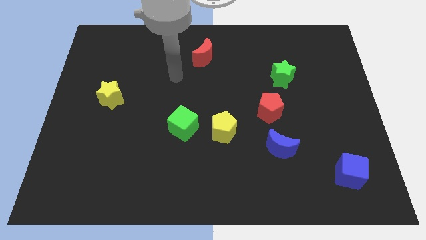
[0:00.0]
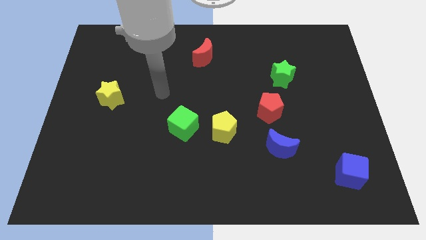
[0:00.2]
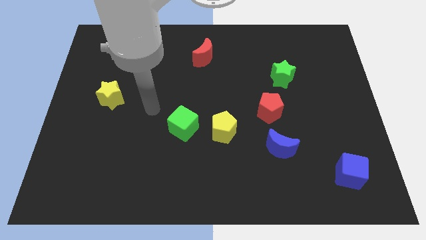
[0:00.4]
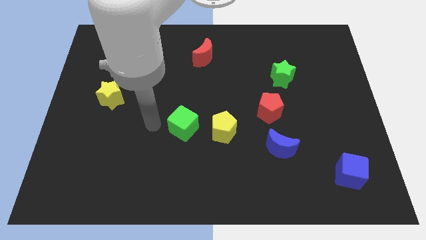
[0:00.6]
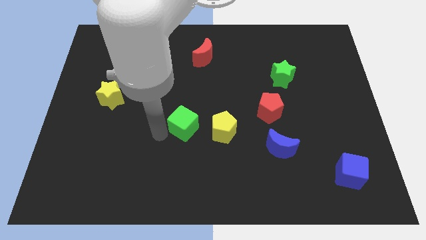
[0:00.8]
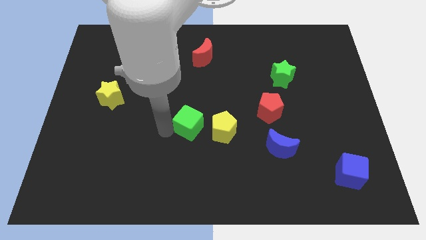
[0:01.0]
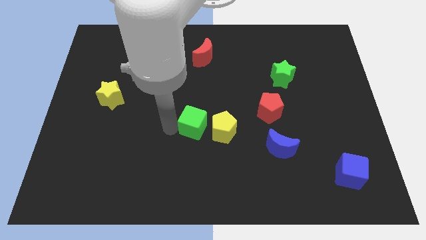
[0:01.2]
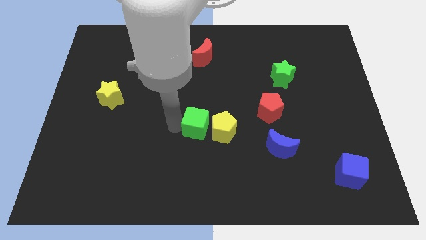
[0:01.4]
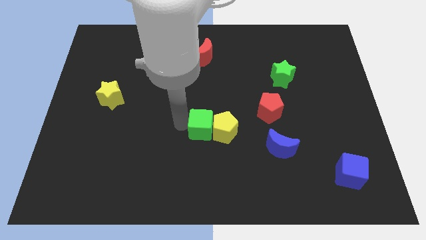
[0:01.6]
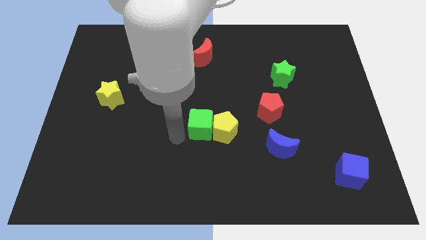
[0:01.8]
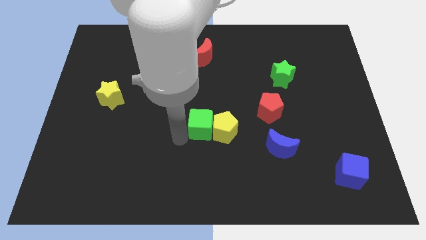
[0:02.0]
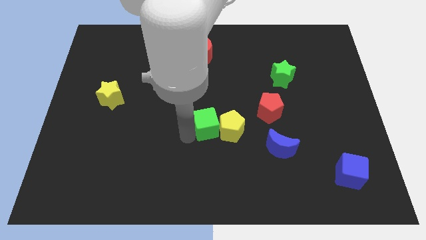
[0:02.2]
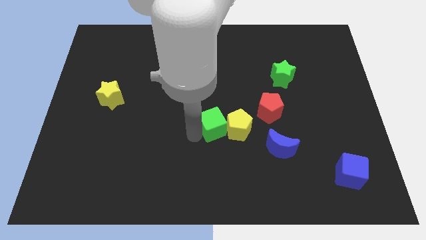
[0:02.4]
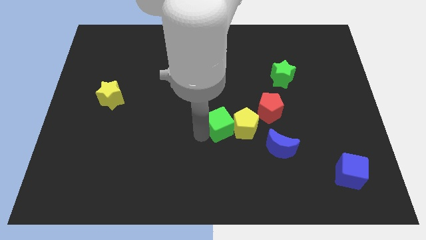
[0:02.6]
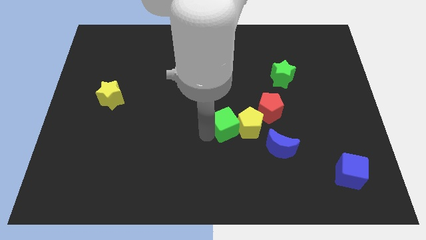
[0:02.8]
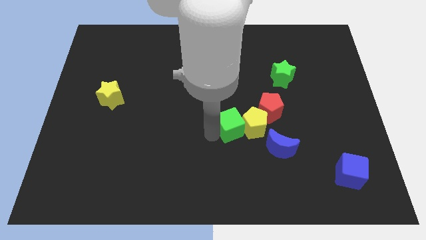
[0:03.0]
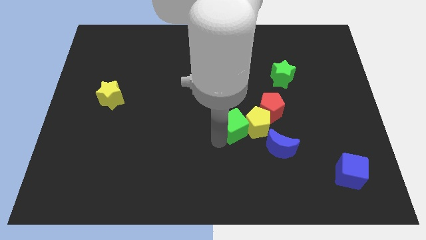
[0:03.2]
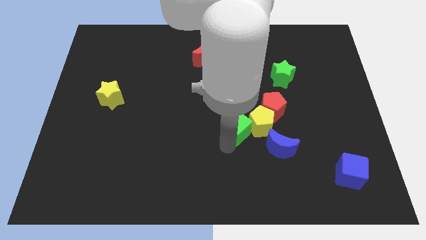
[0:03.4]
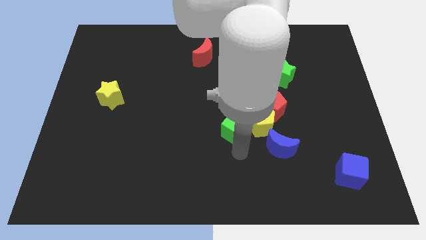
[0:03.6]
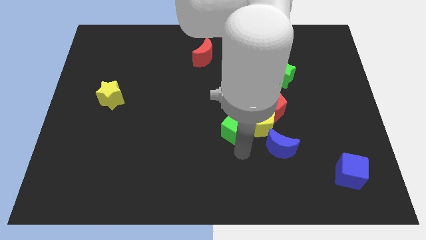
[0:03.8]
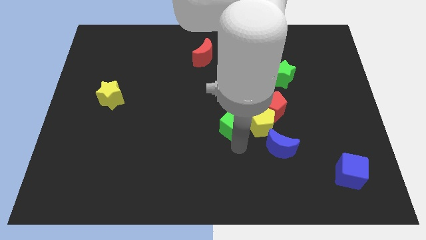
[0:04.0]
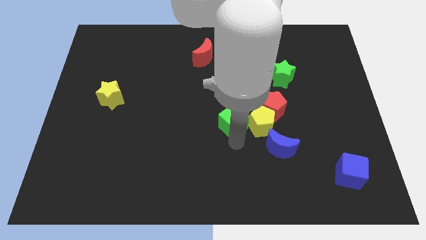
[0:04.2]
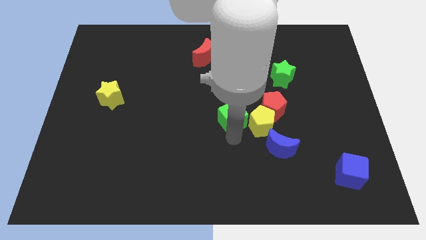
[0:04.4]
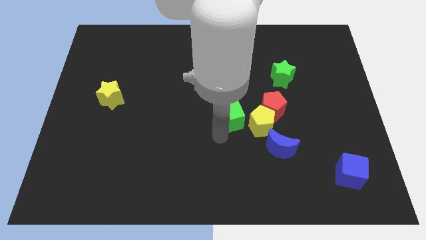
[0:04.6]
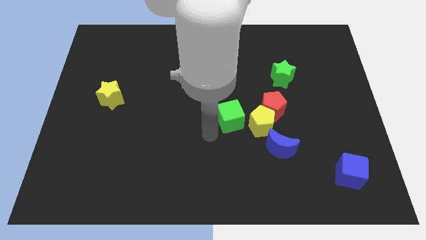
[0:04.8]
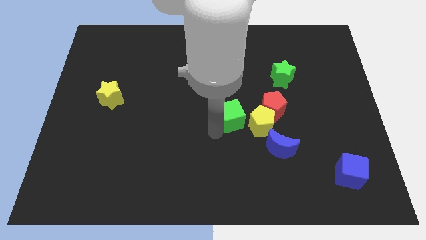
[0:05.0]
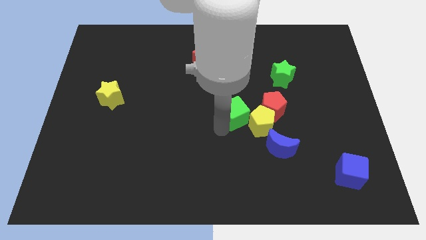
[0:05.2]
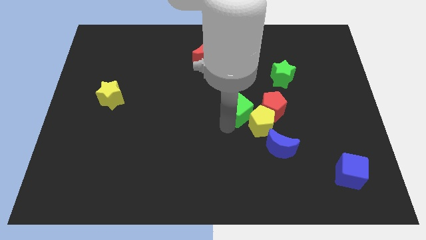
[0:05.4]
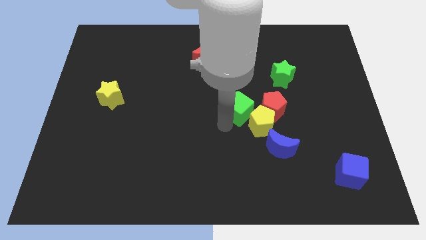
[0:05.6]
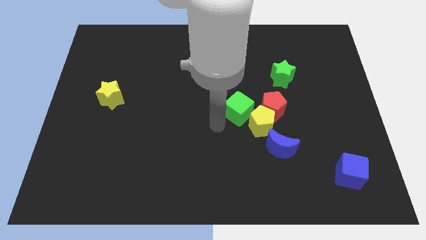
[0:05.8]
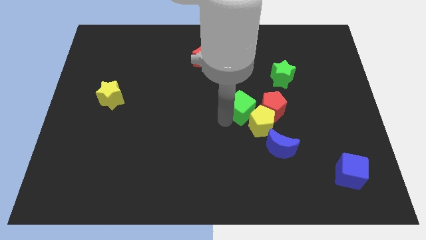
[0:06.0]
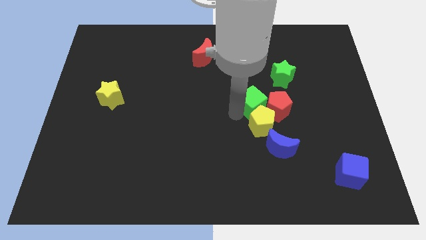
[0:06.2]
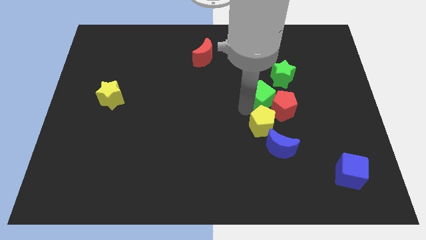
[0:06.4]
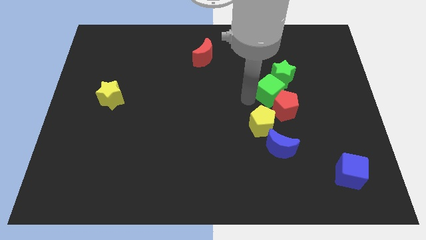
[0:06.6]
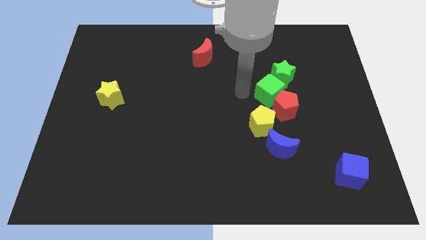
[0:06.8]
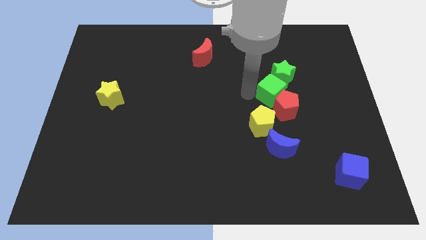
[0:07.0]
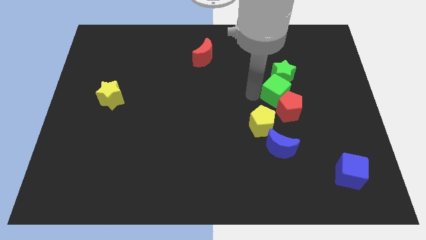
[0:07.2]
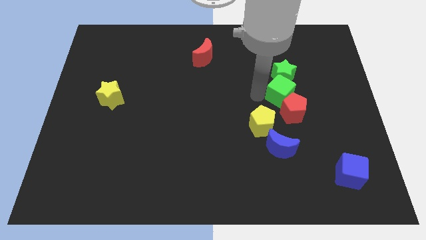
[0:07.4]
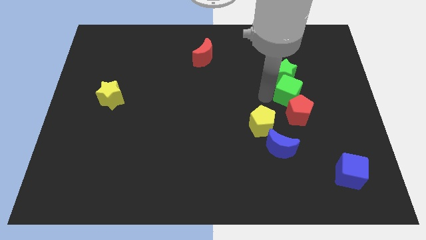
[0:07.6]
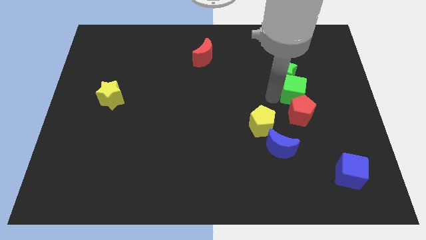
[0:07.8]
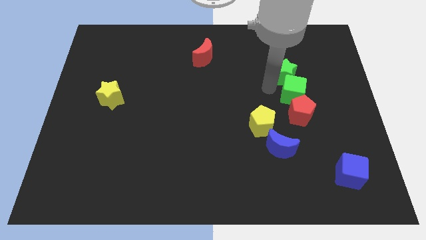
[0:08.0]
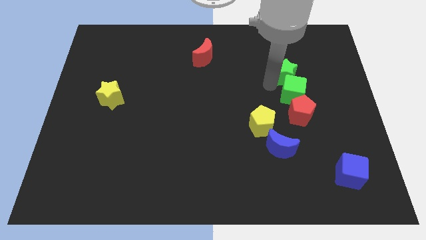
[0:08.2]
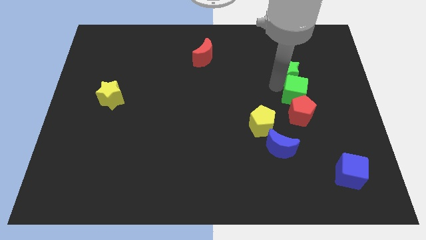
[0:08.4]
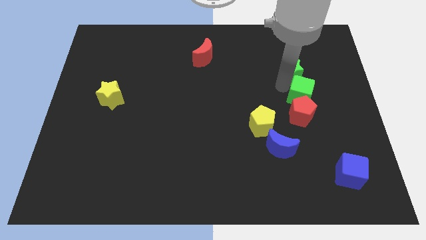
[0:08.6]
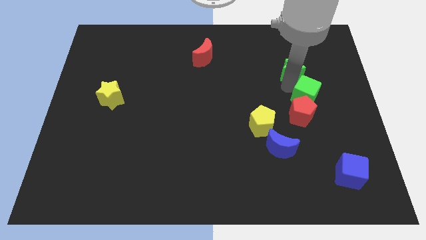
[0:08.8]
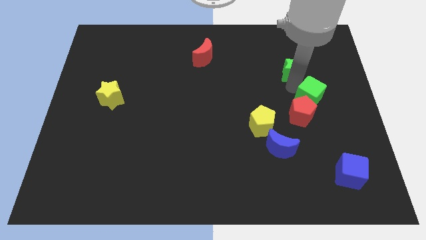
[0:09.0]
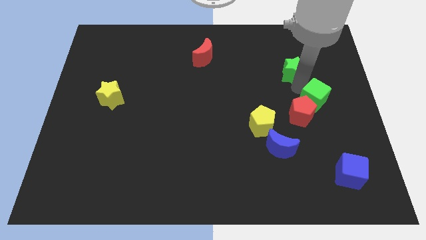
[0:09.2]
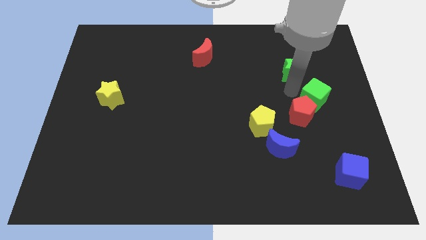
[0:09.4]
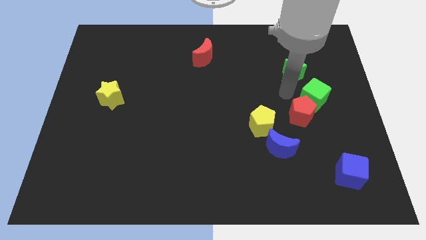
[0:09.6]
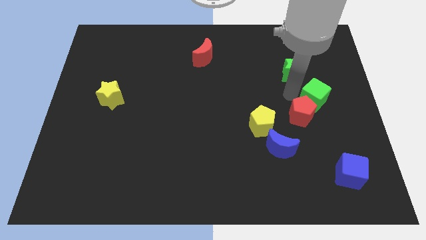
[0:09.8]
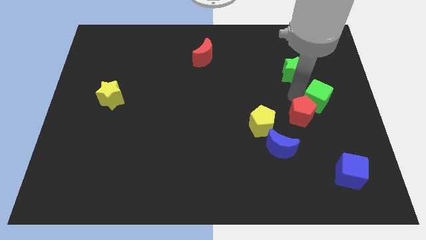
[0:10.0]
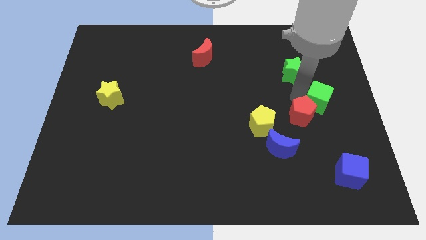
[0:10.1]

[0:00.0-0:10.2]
put the green cube to the center right

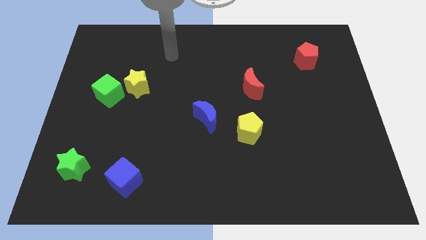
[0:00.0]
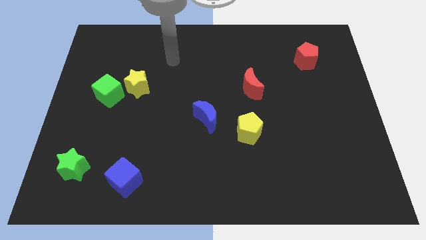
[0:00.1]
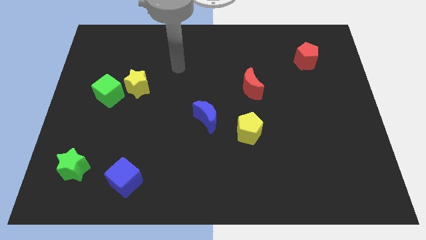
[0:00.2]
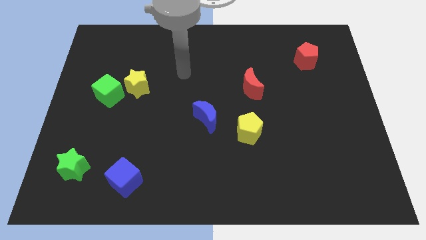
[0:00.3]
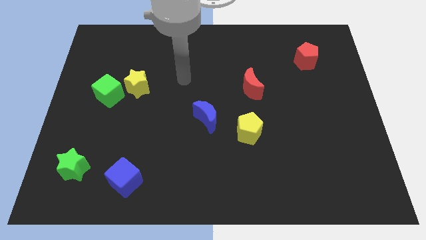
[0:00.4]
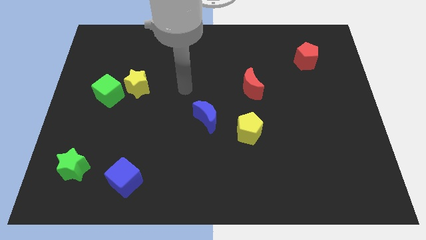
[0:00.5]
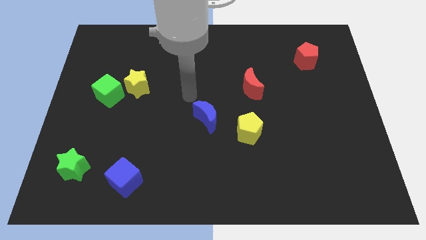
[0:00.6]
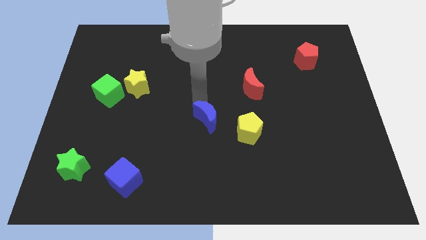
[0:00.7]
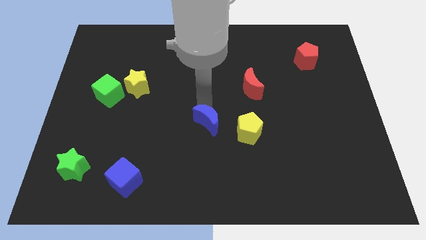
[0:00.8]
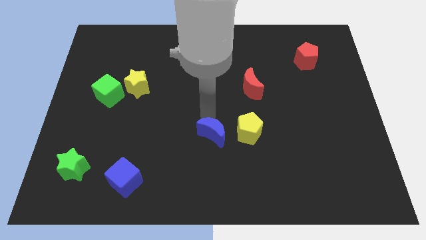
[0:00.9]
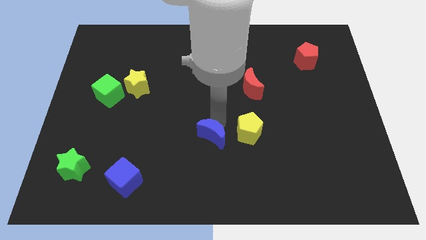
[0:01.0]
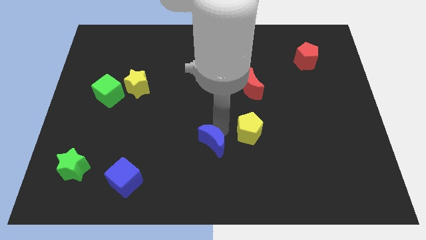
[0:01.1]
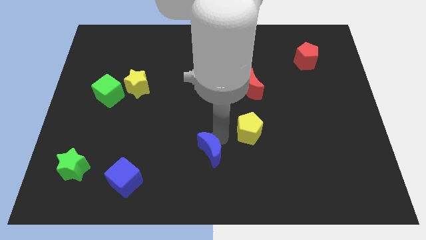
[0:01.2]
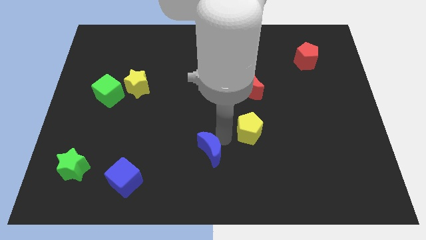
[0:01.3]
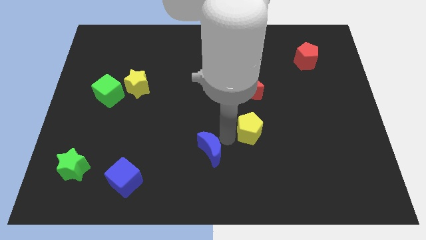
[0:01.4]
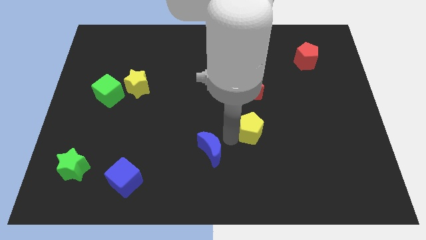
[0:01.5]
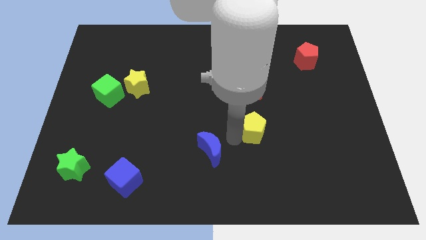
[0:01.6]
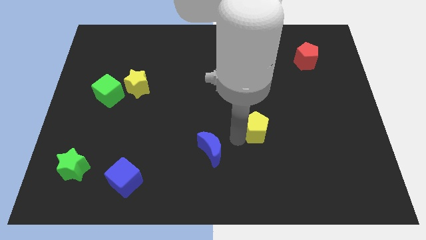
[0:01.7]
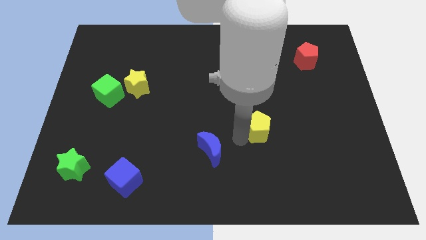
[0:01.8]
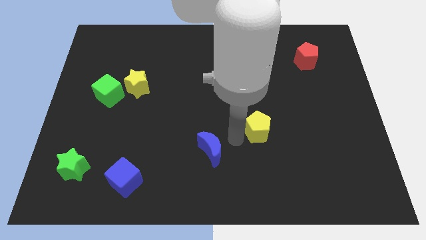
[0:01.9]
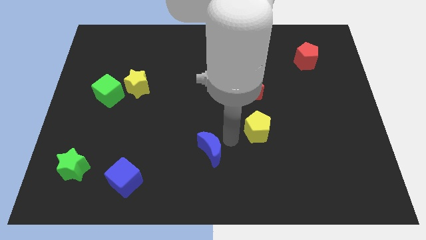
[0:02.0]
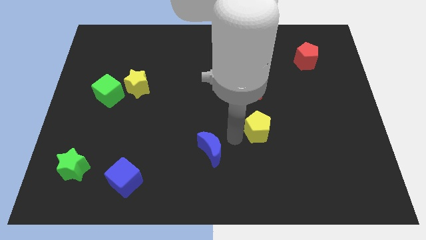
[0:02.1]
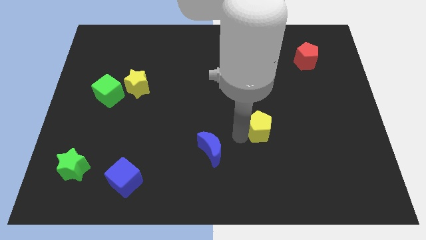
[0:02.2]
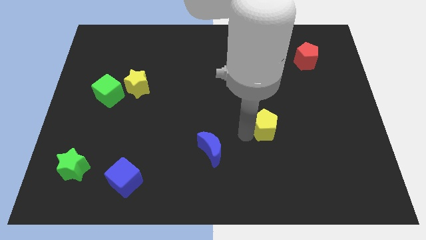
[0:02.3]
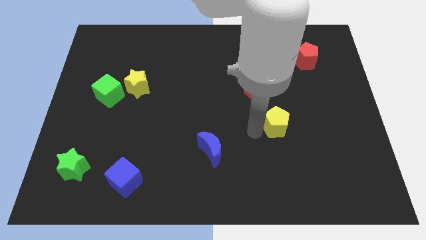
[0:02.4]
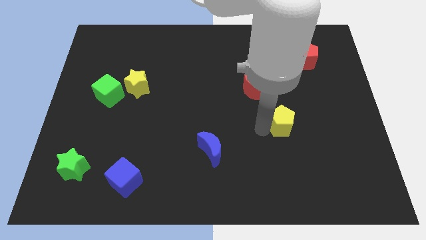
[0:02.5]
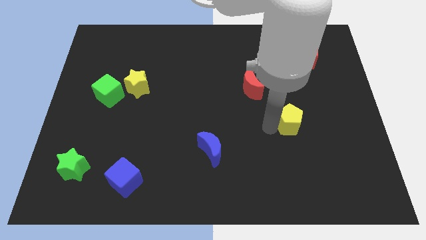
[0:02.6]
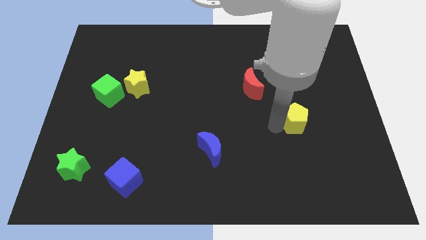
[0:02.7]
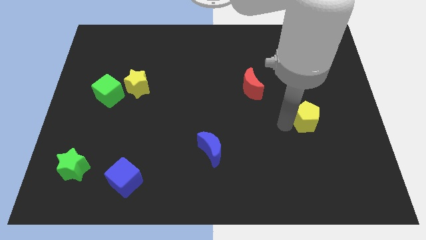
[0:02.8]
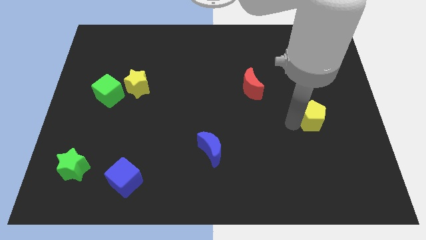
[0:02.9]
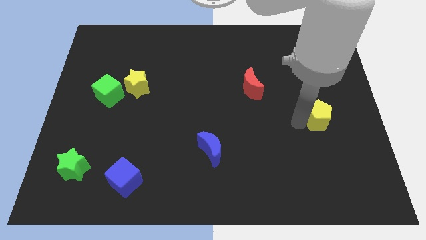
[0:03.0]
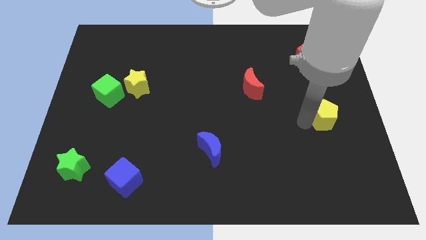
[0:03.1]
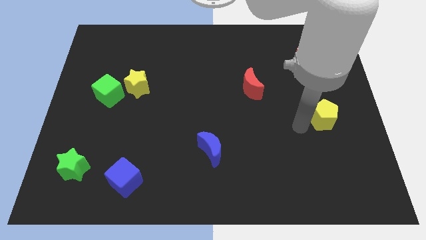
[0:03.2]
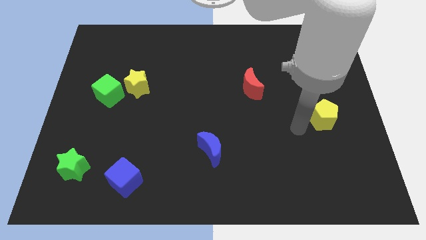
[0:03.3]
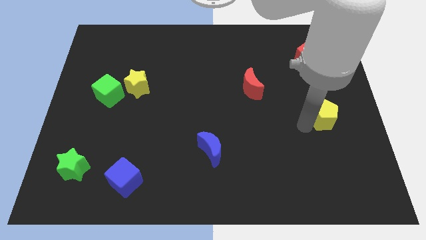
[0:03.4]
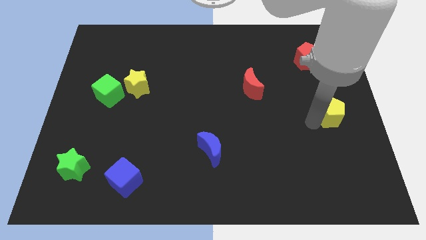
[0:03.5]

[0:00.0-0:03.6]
push the yellow pentagon to the right side
